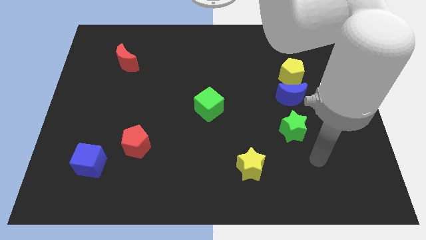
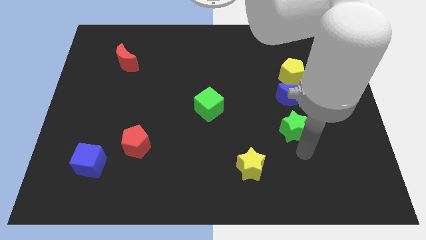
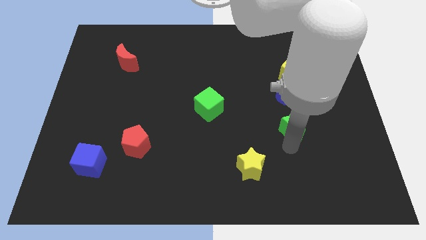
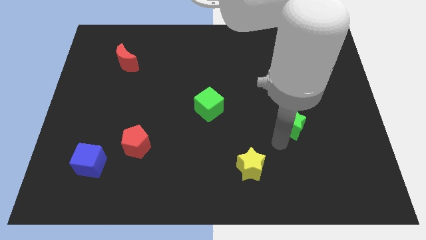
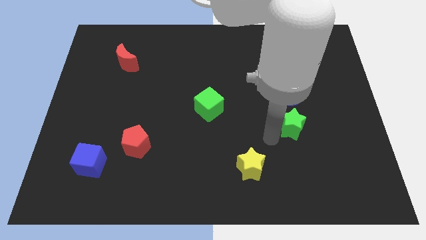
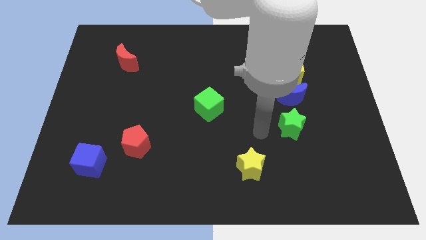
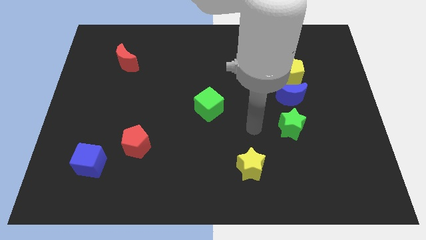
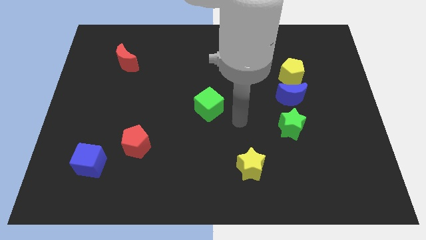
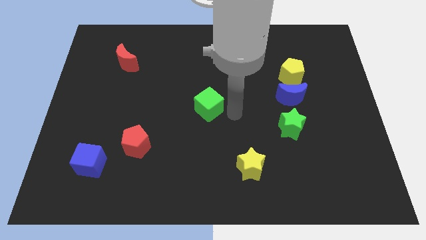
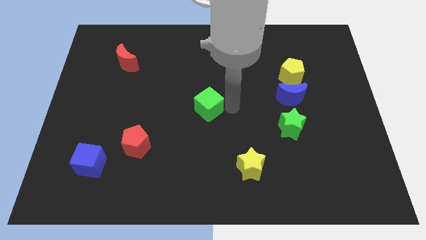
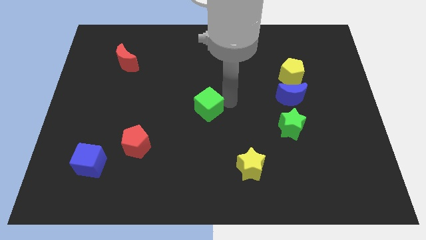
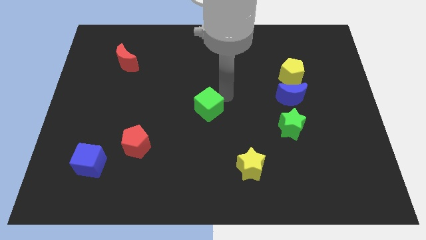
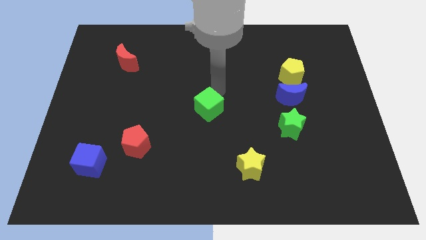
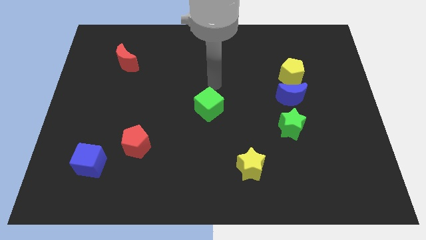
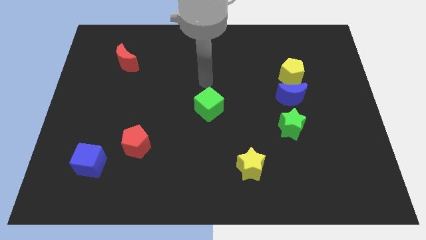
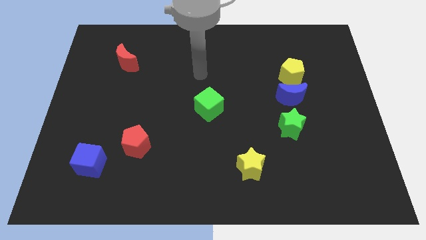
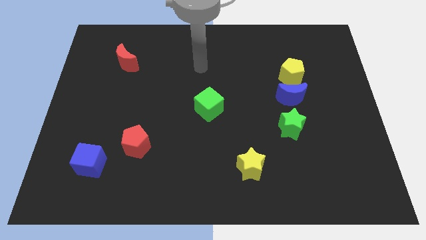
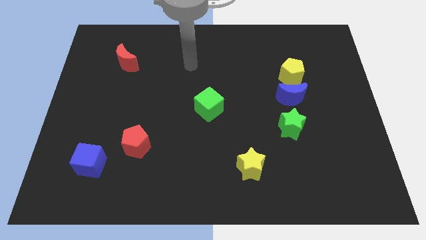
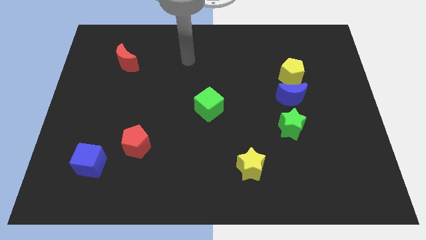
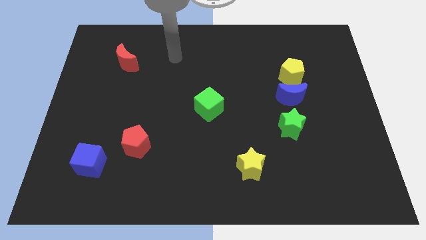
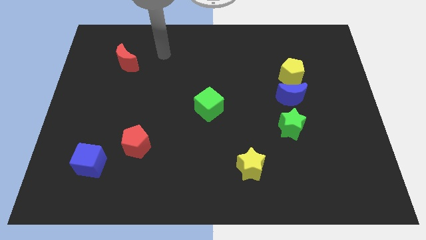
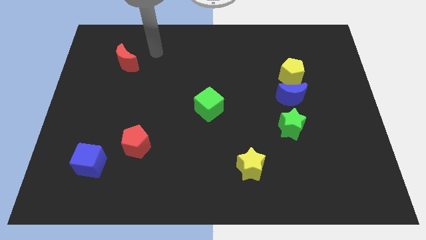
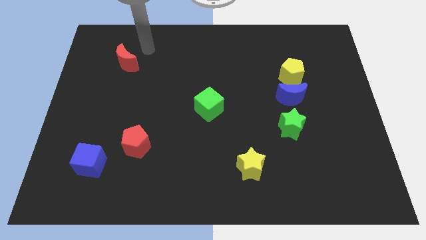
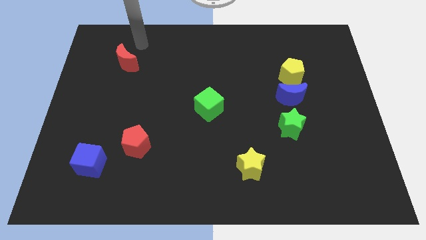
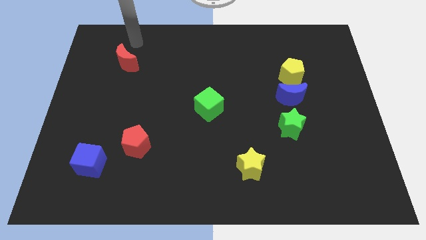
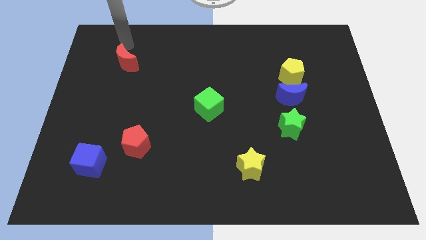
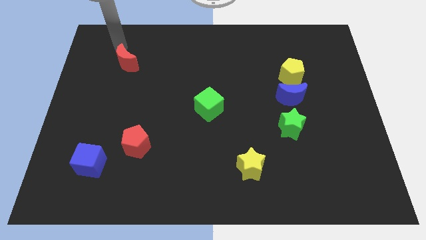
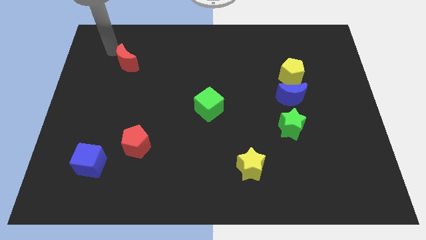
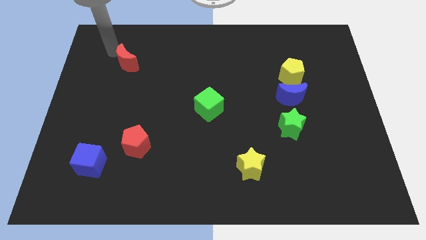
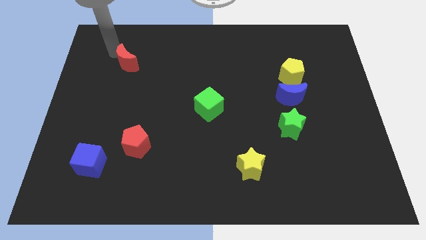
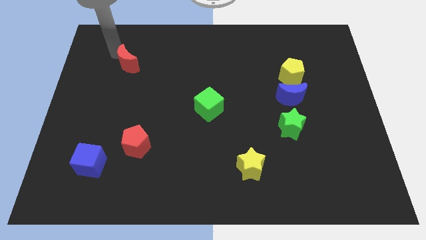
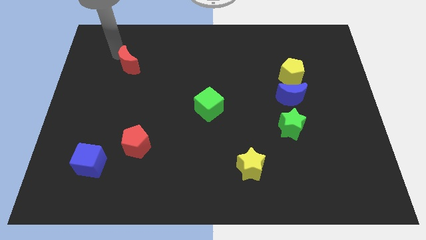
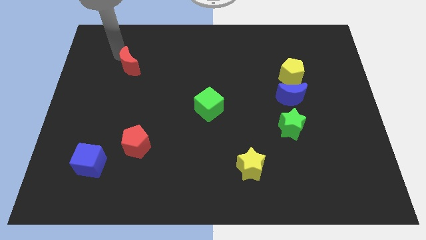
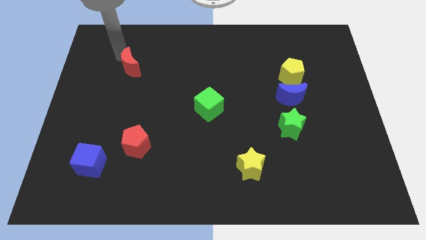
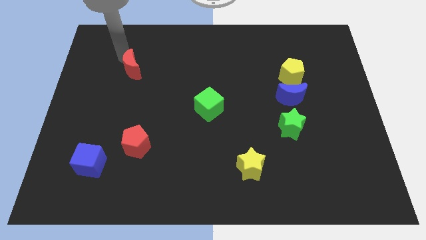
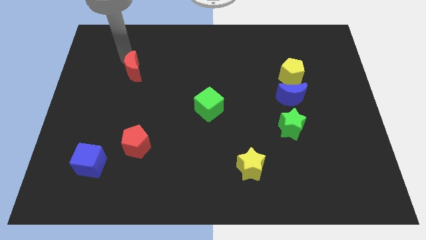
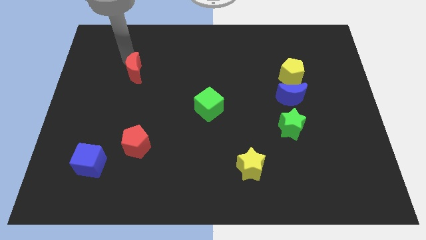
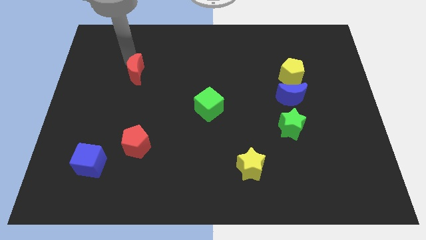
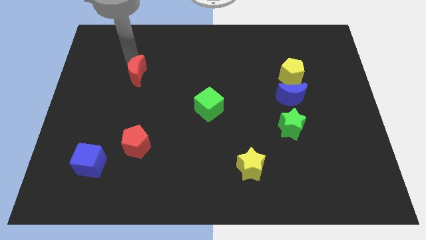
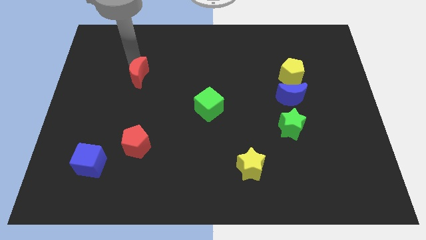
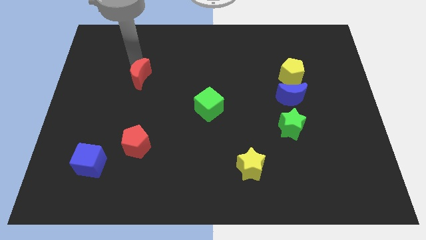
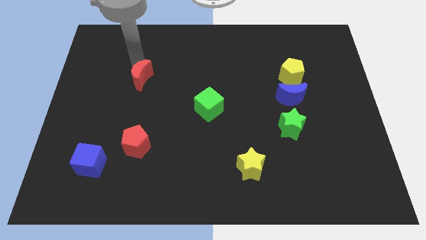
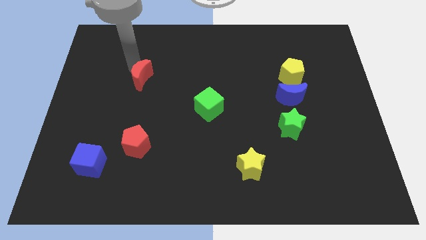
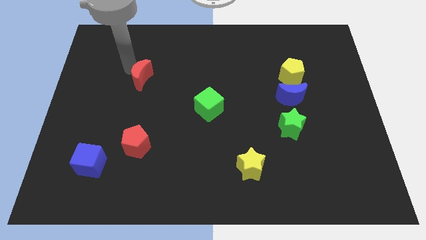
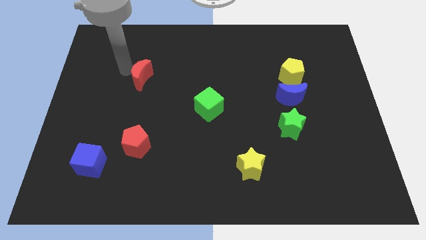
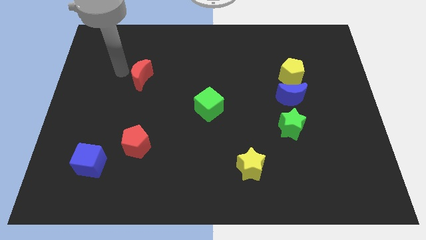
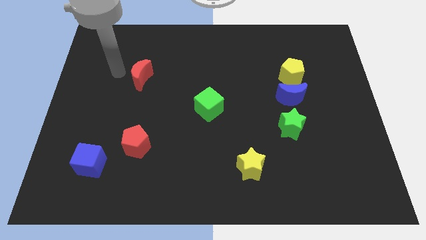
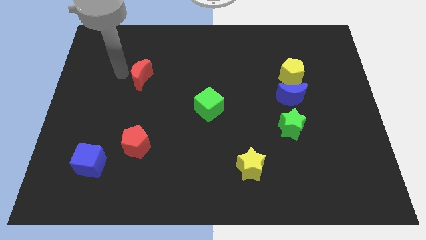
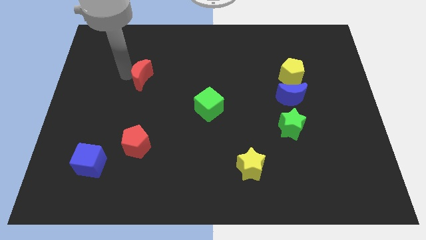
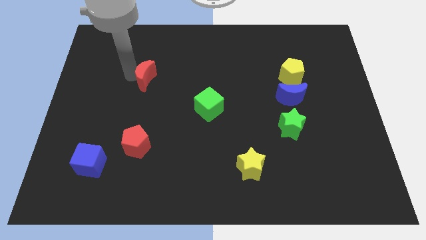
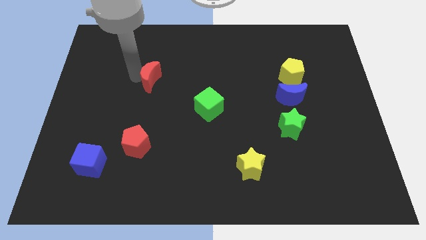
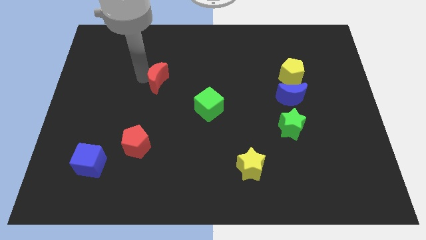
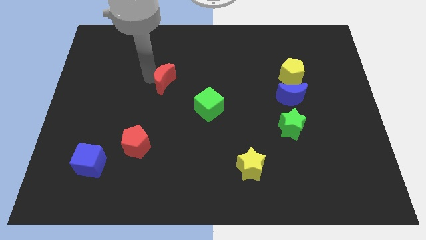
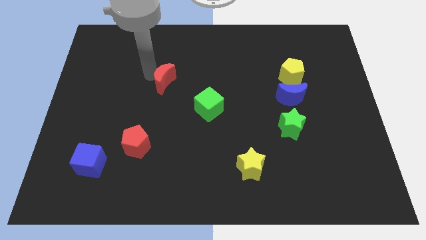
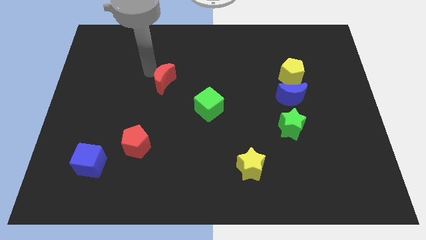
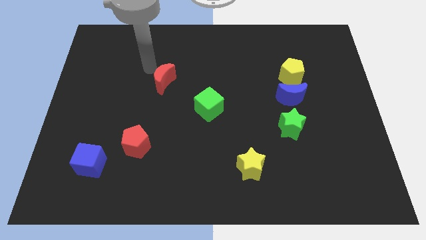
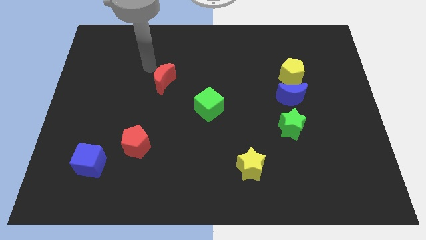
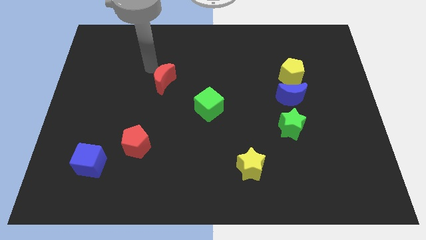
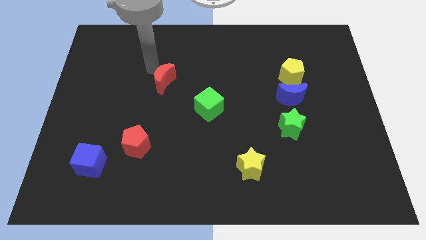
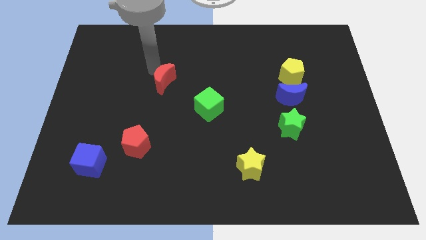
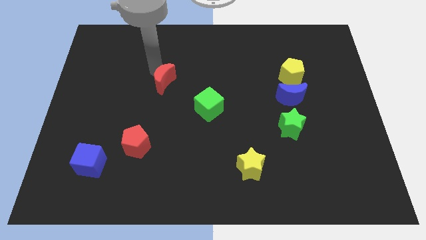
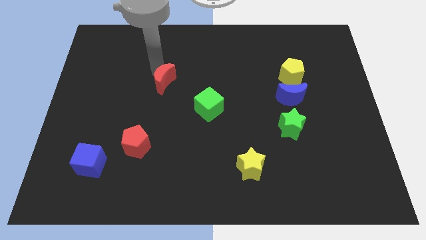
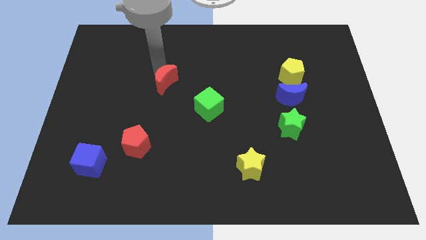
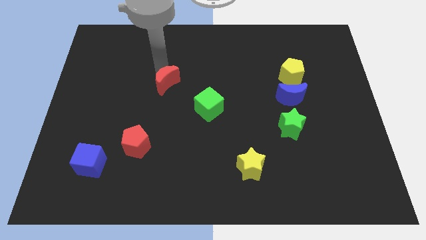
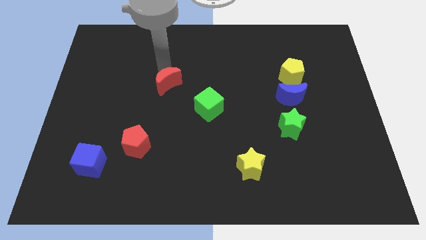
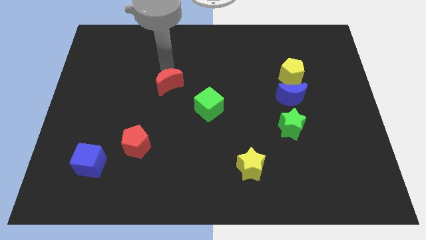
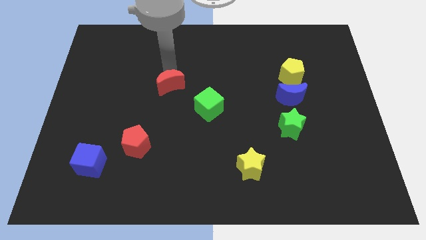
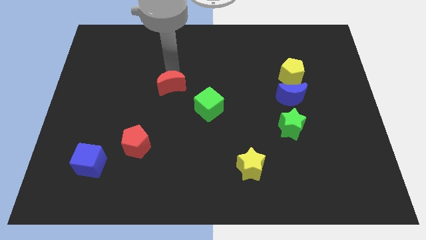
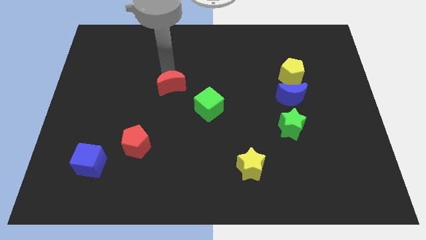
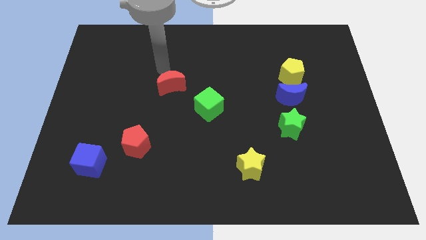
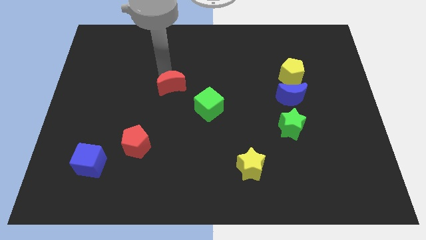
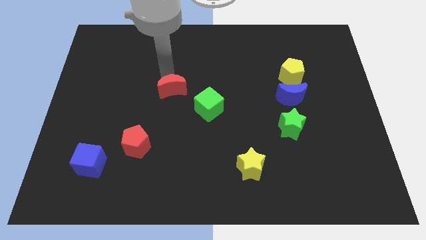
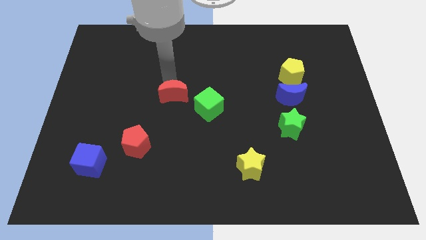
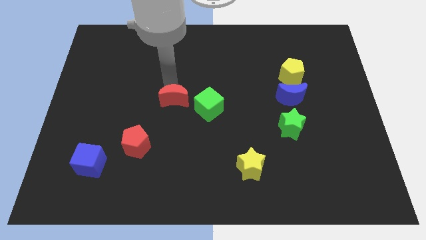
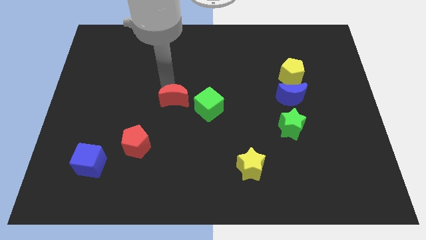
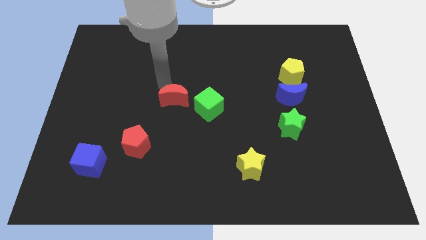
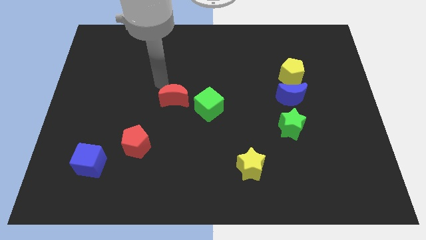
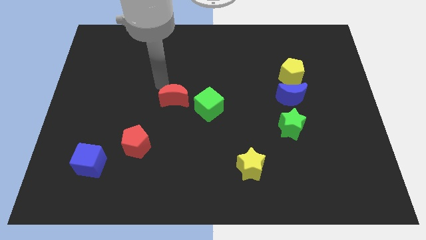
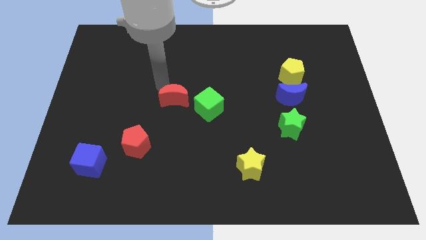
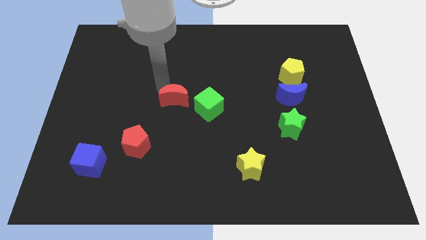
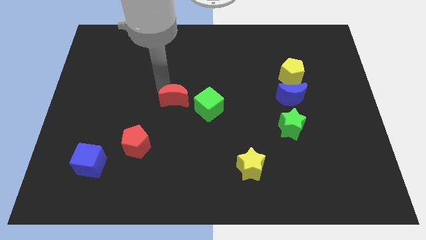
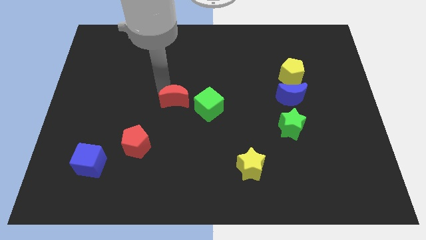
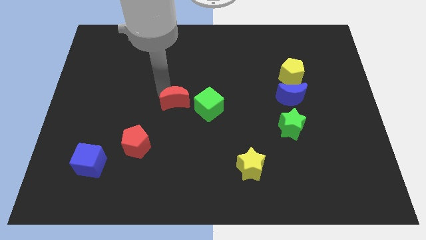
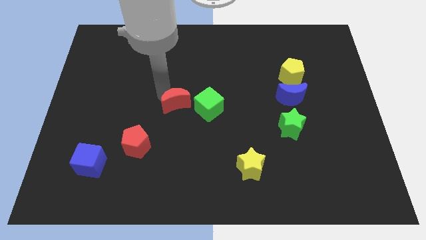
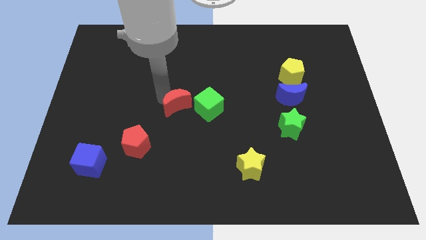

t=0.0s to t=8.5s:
move the red moon downwards and then right
